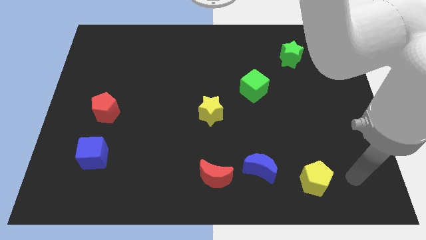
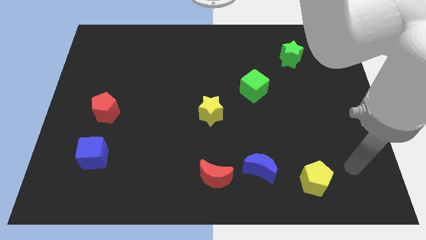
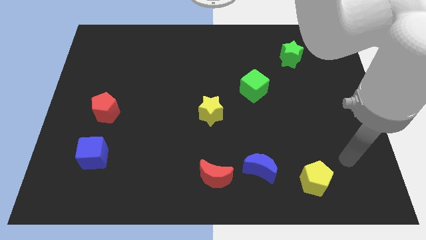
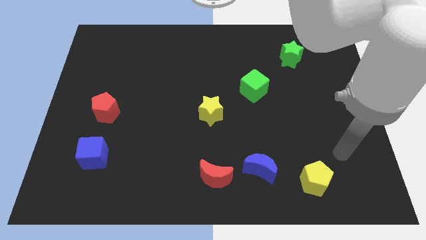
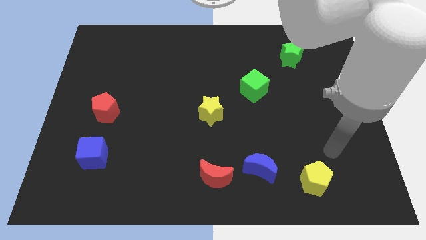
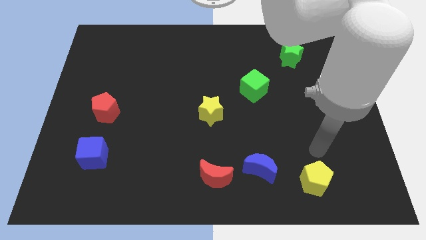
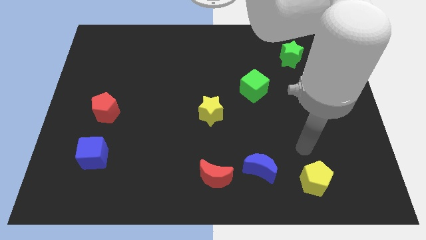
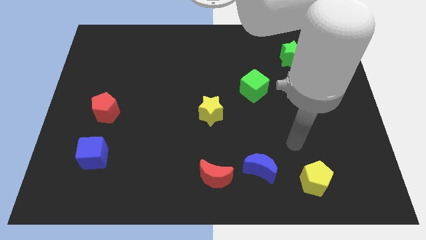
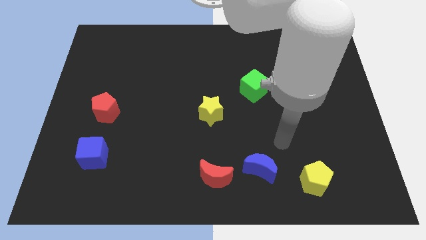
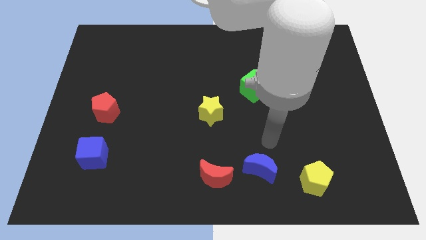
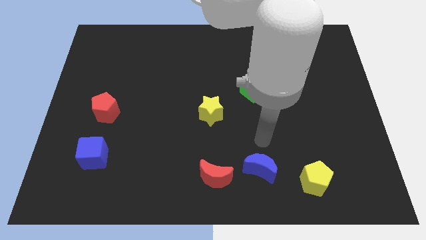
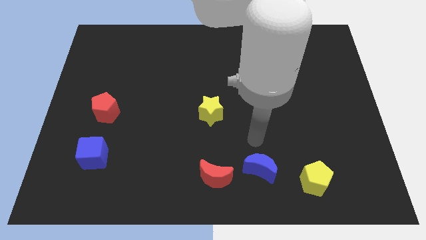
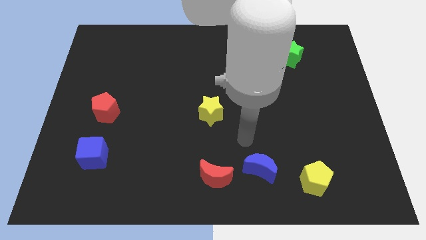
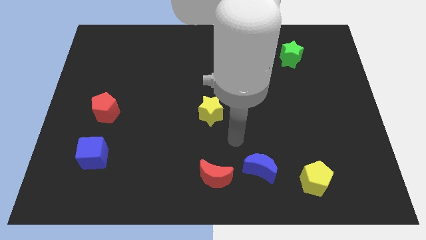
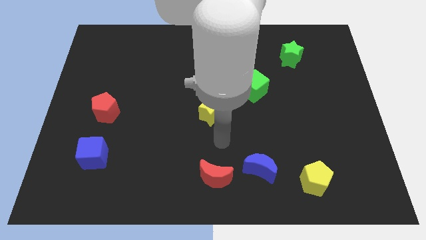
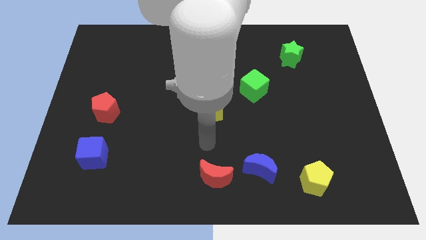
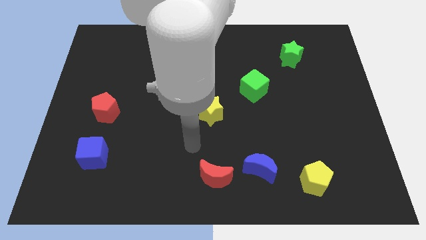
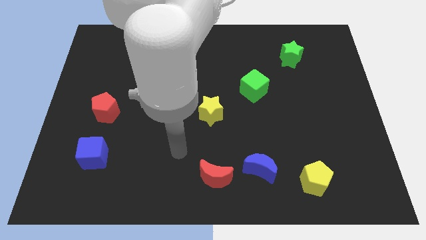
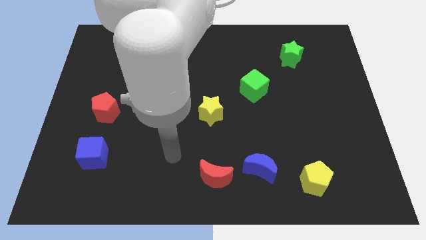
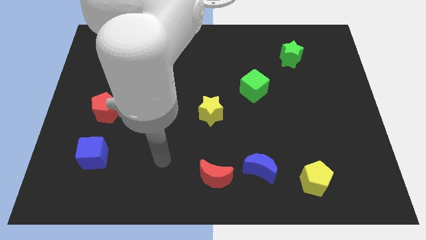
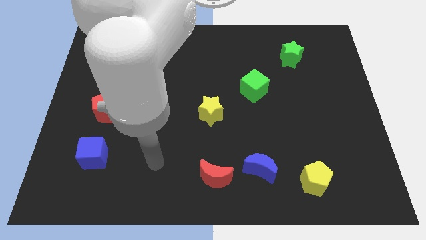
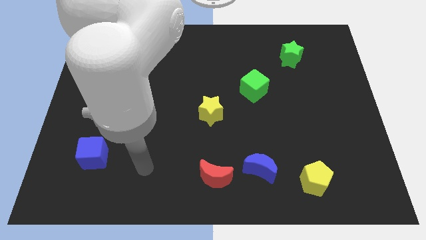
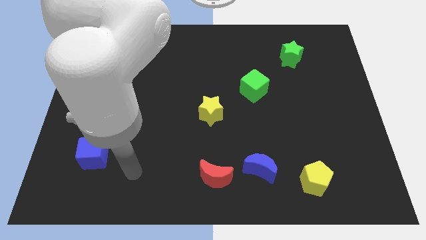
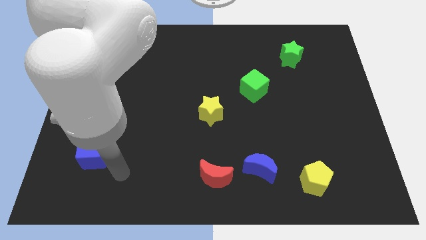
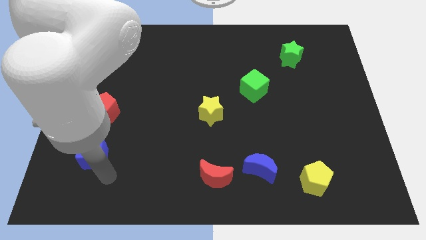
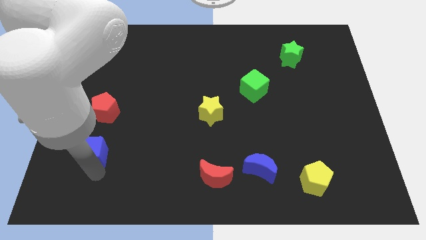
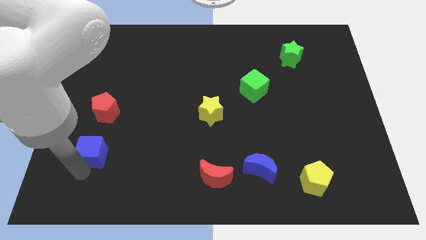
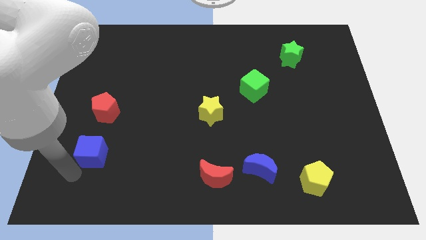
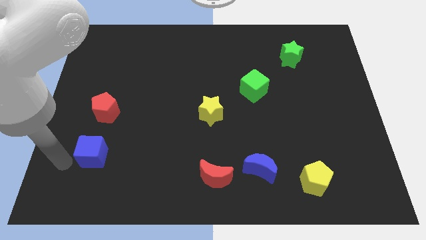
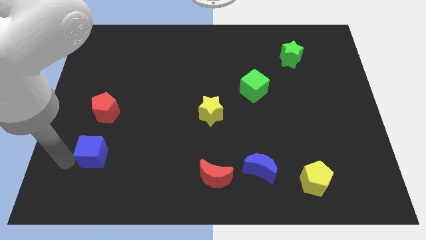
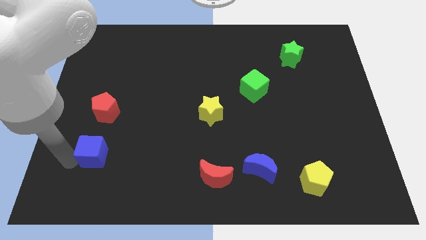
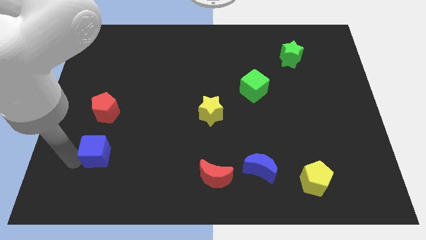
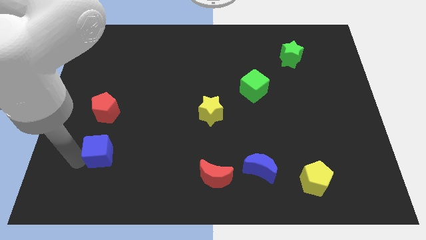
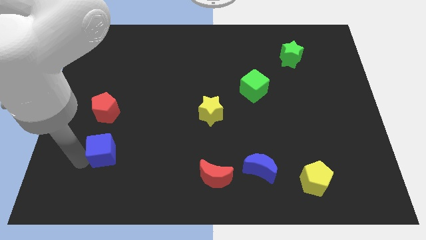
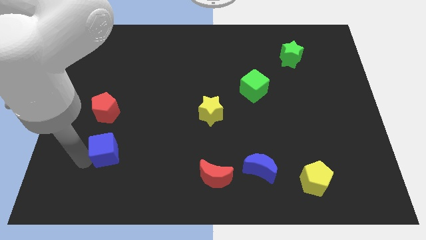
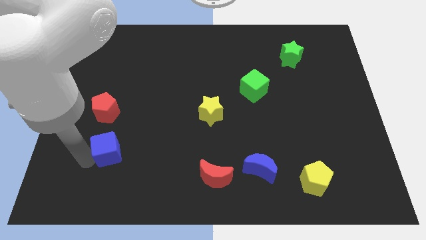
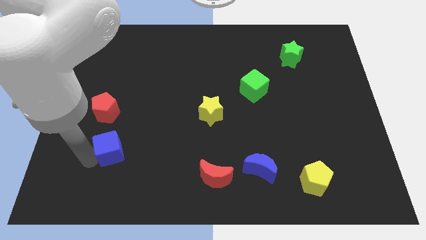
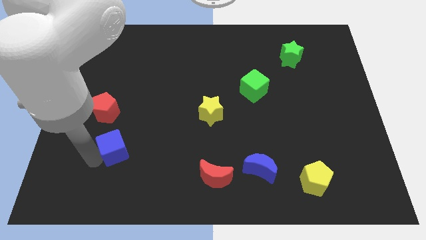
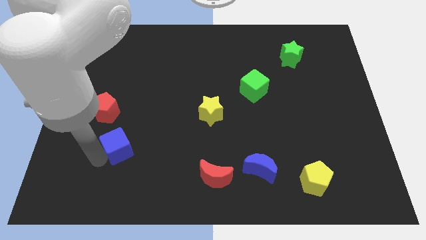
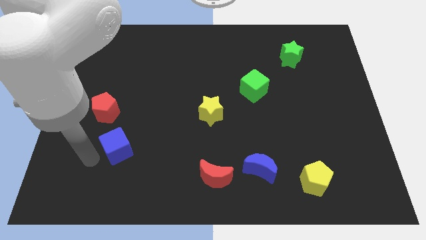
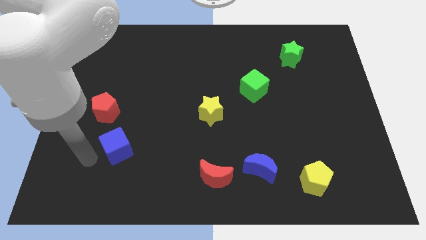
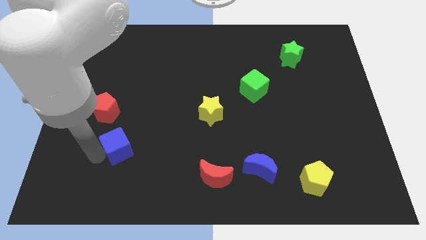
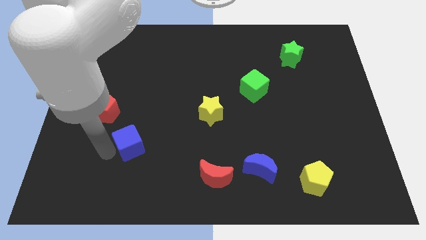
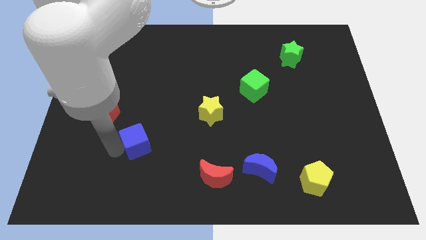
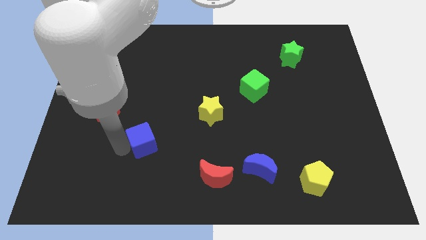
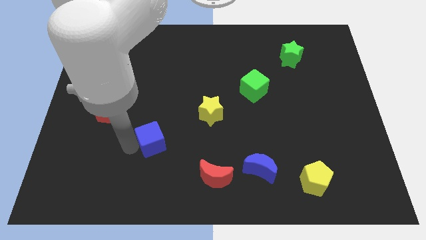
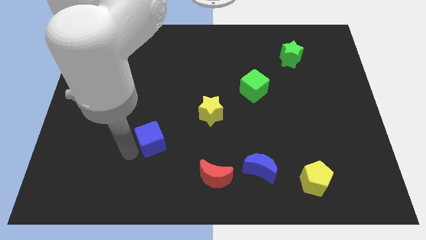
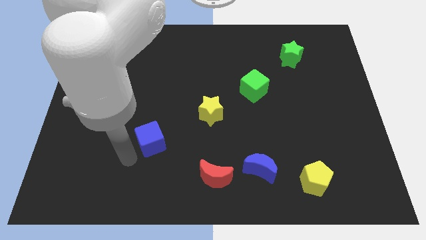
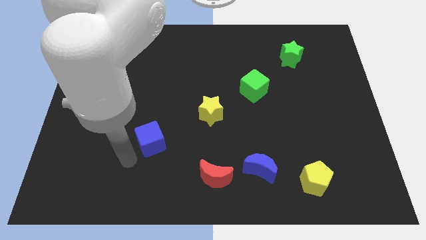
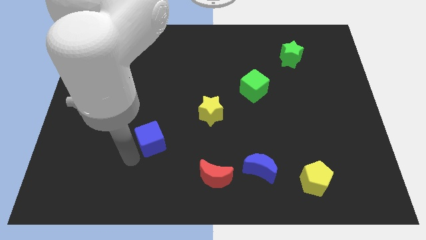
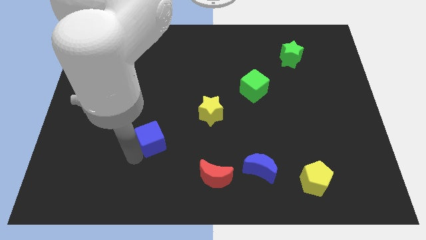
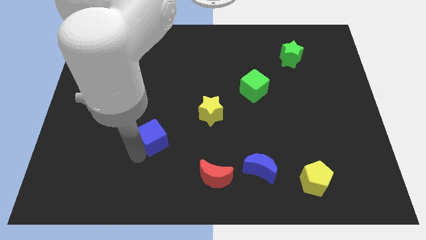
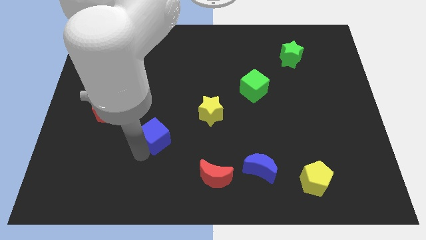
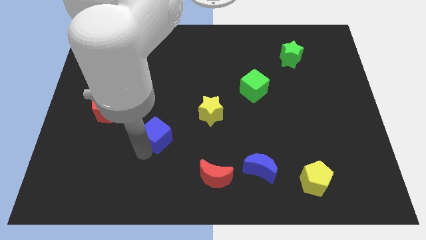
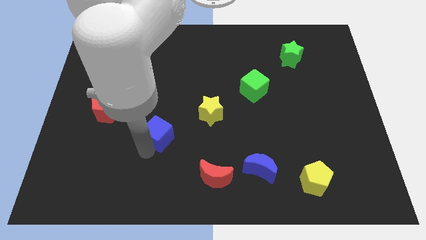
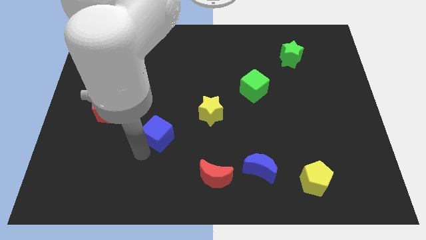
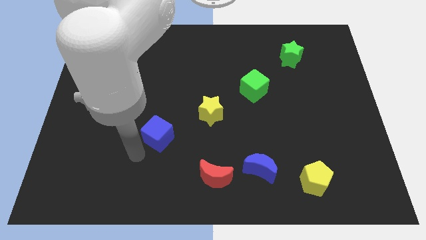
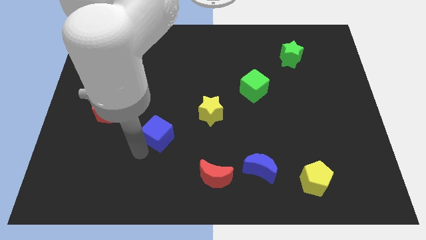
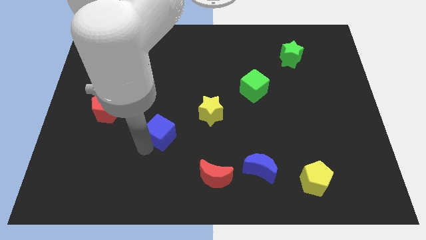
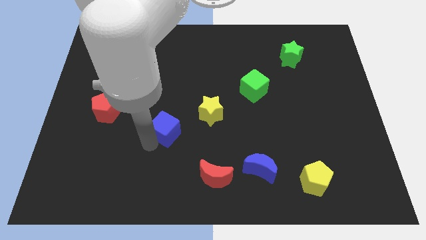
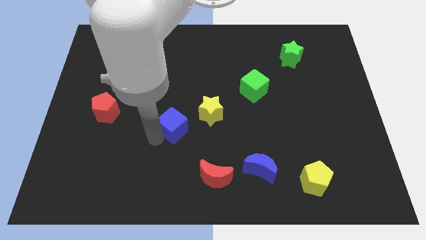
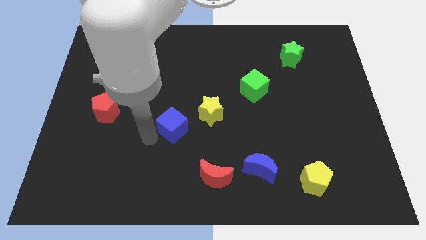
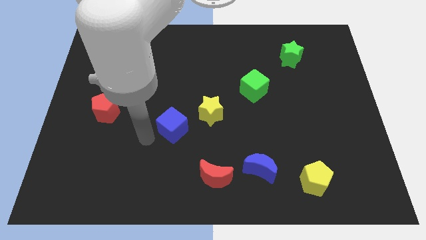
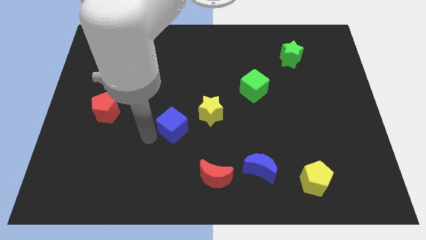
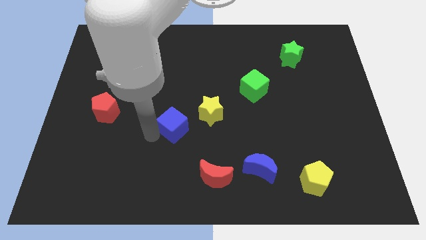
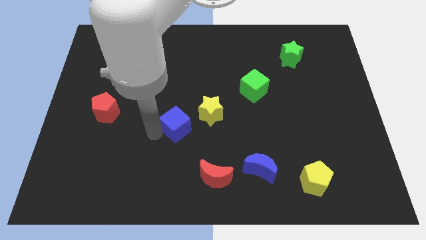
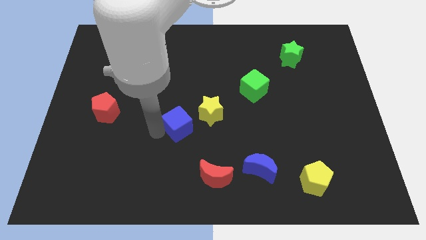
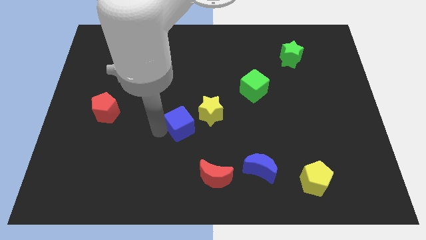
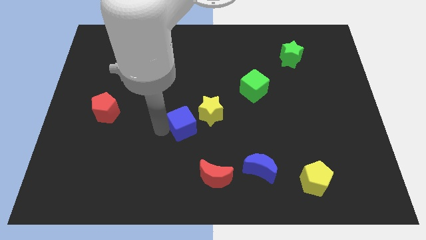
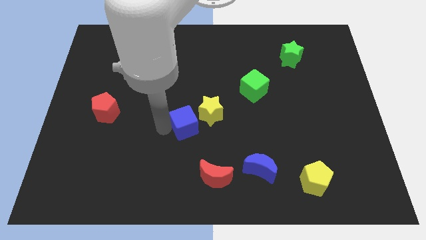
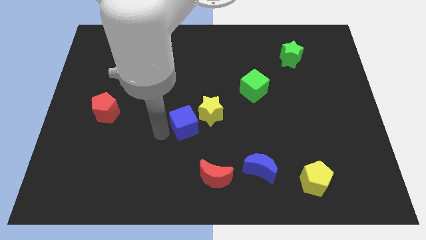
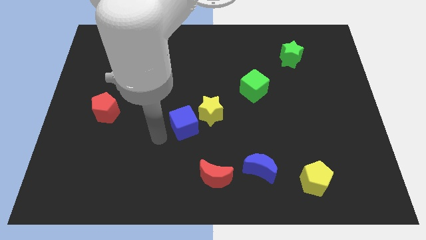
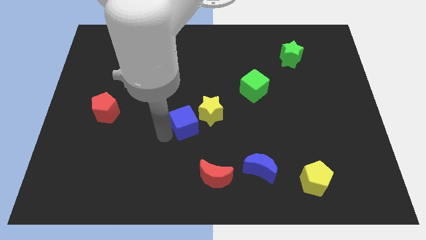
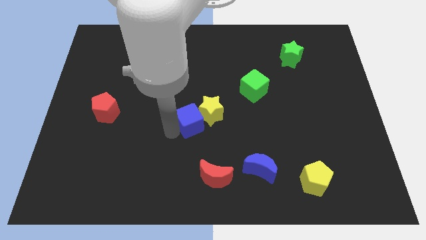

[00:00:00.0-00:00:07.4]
move the blue cube close to the yellow star
